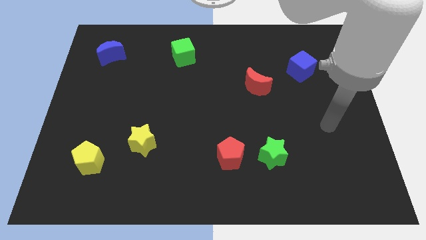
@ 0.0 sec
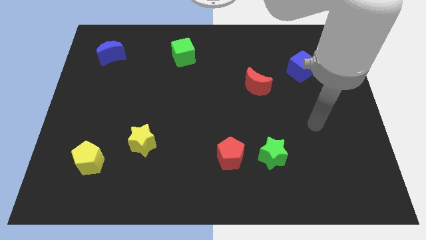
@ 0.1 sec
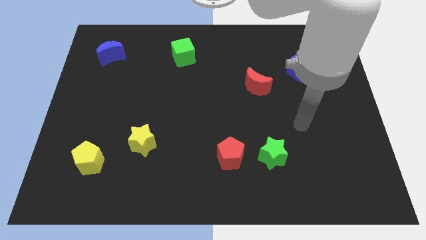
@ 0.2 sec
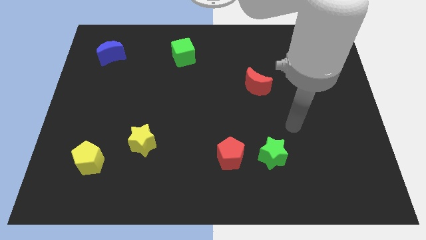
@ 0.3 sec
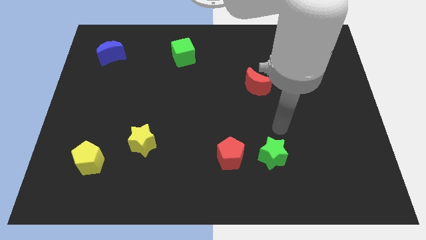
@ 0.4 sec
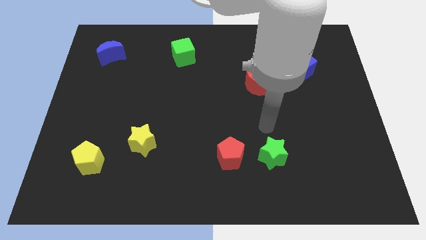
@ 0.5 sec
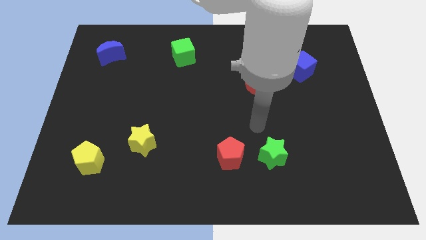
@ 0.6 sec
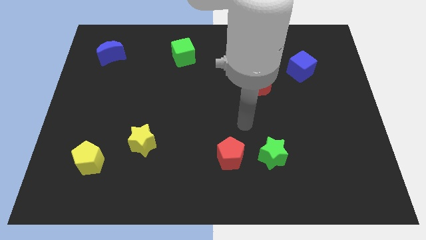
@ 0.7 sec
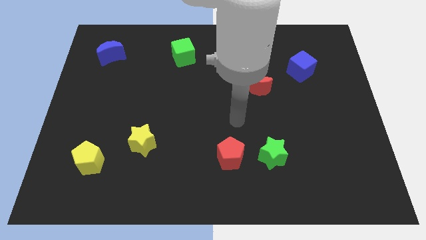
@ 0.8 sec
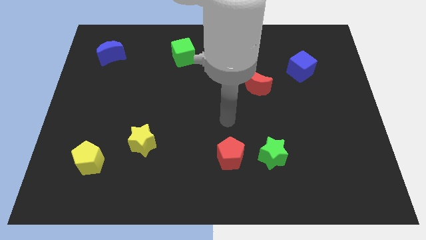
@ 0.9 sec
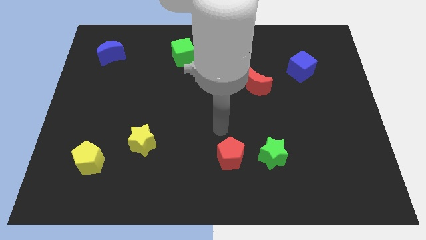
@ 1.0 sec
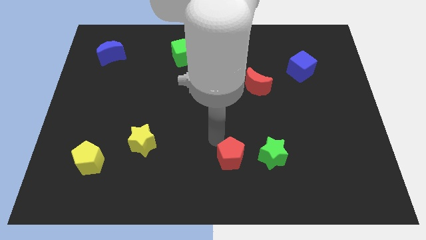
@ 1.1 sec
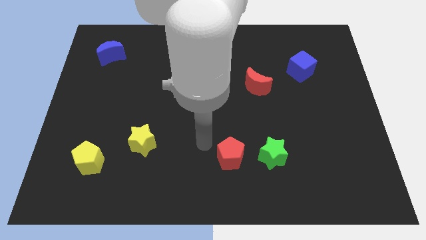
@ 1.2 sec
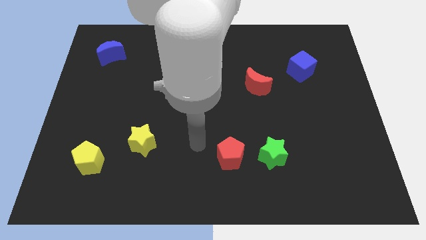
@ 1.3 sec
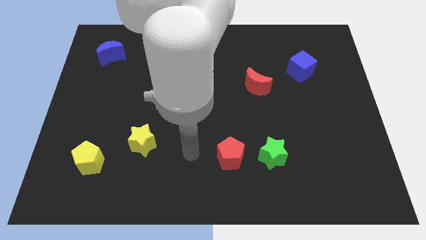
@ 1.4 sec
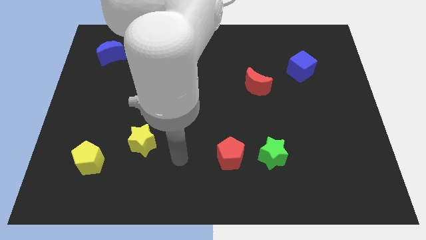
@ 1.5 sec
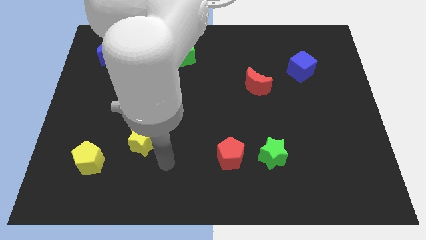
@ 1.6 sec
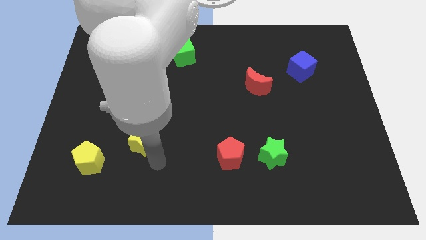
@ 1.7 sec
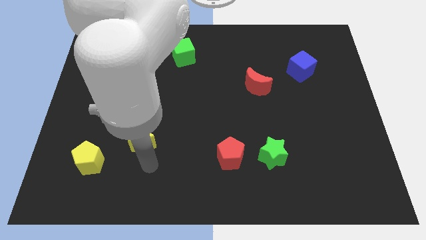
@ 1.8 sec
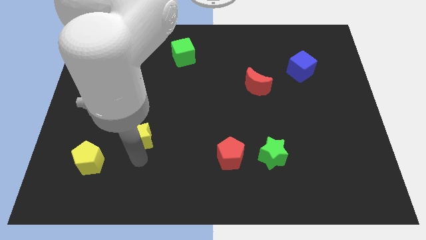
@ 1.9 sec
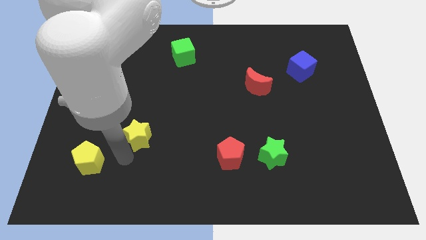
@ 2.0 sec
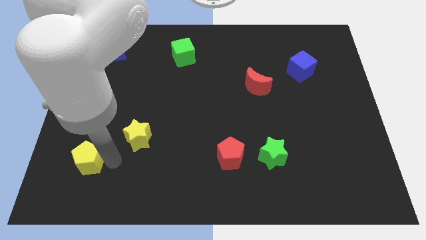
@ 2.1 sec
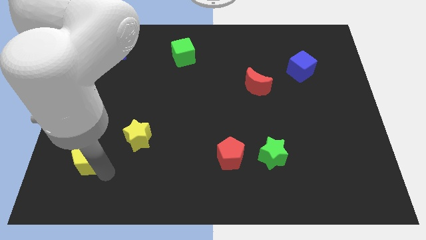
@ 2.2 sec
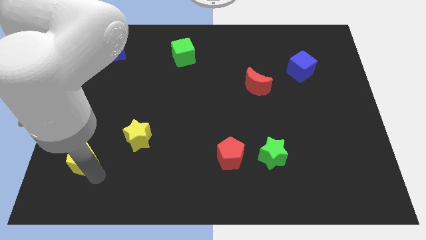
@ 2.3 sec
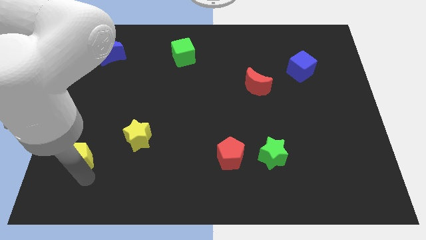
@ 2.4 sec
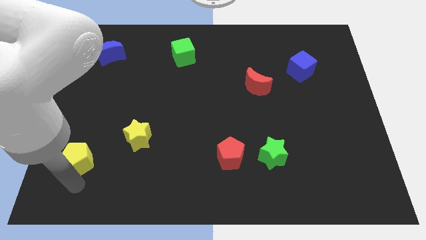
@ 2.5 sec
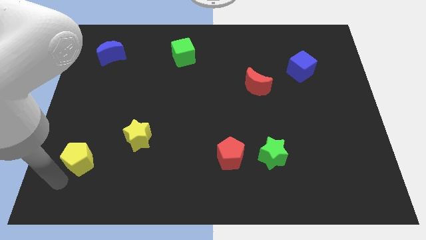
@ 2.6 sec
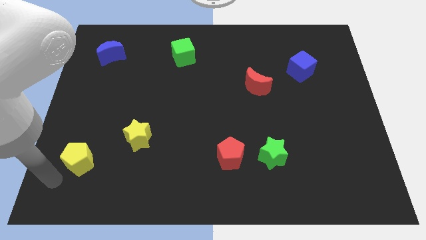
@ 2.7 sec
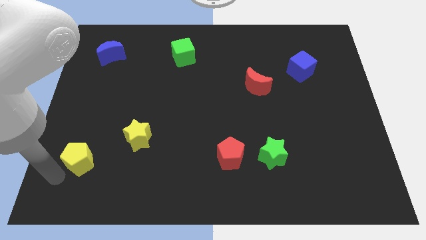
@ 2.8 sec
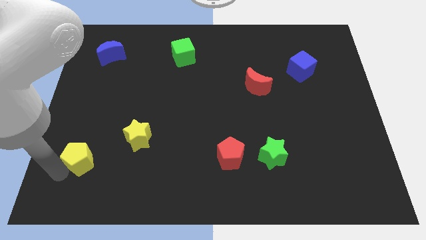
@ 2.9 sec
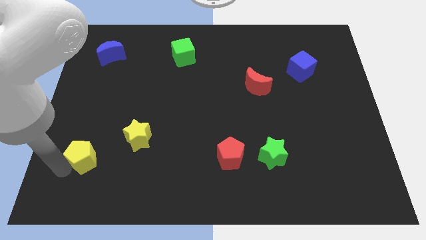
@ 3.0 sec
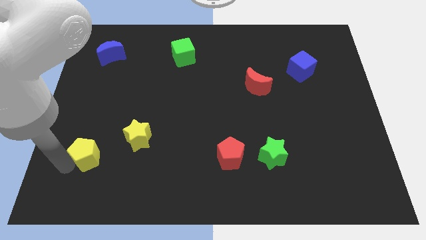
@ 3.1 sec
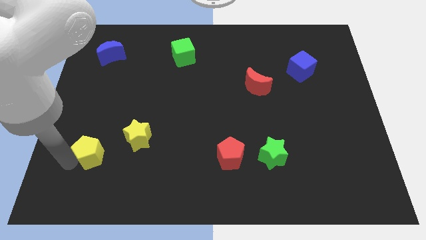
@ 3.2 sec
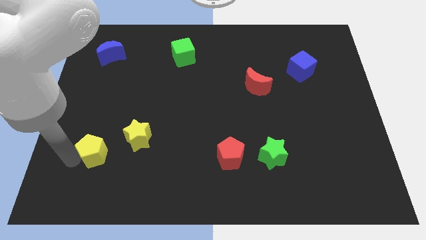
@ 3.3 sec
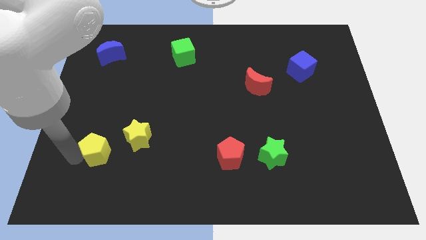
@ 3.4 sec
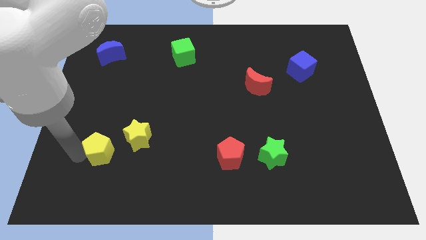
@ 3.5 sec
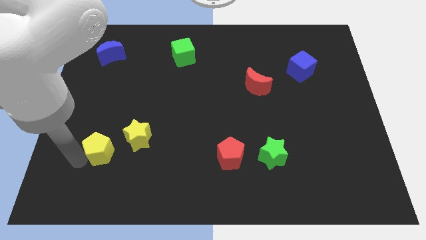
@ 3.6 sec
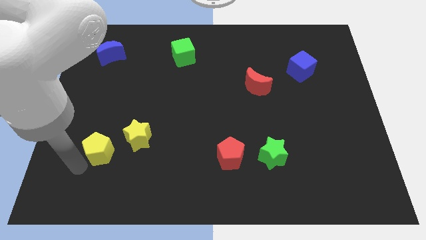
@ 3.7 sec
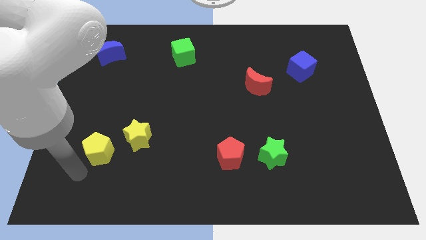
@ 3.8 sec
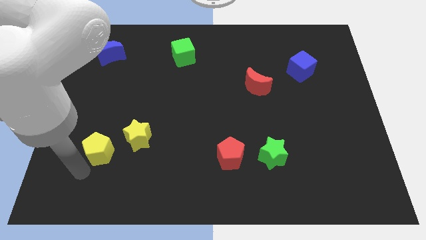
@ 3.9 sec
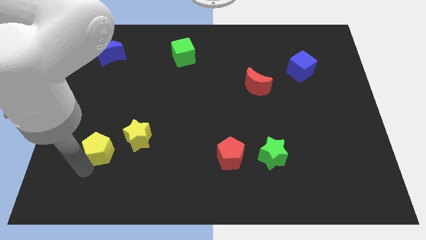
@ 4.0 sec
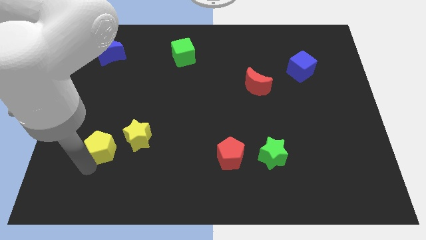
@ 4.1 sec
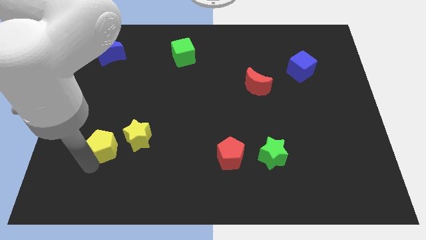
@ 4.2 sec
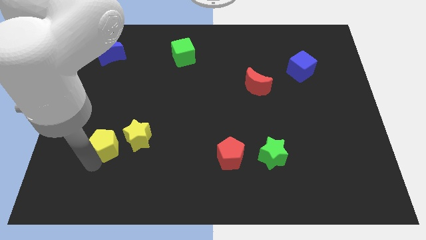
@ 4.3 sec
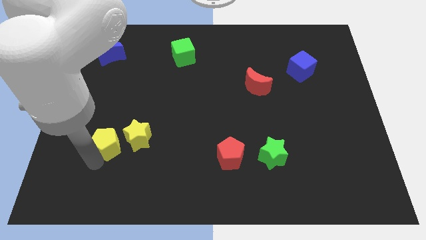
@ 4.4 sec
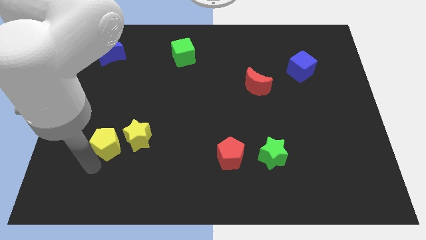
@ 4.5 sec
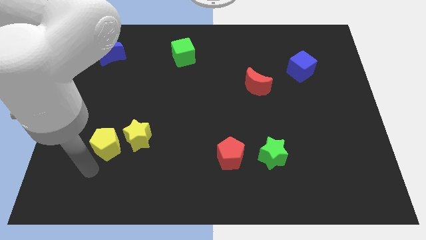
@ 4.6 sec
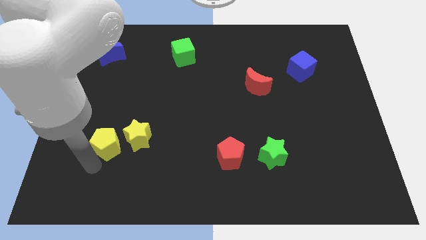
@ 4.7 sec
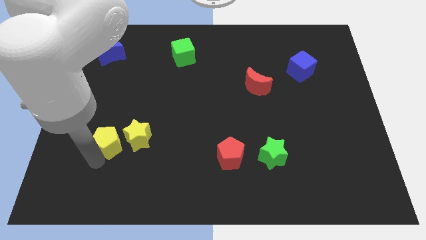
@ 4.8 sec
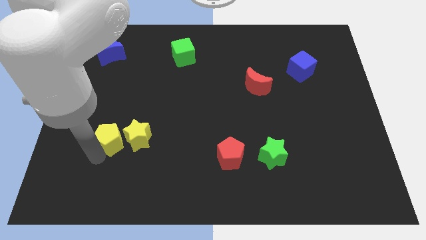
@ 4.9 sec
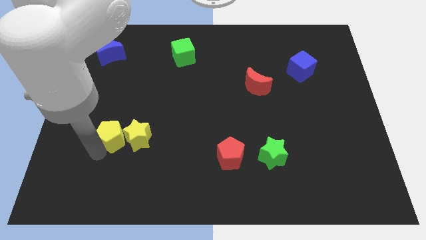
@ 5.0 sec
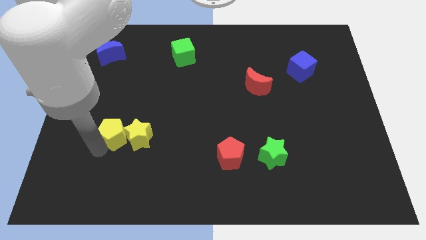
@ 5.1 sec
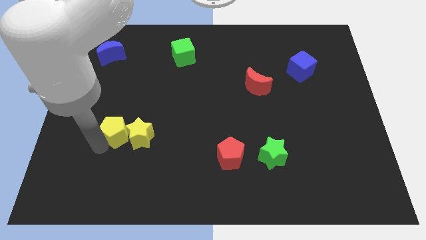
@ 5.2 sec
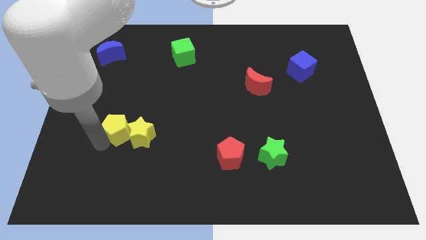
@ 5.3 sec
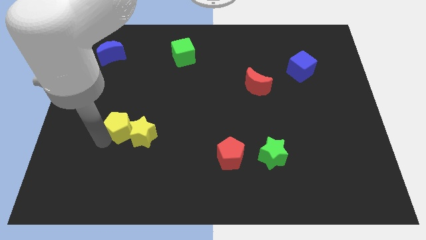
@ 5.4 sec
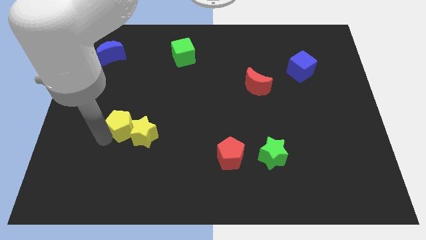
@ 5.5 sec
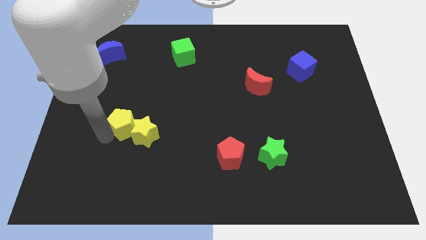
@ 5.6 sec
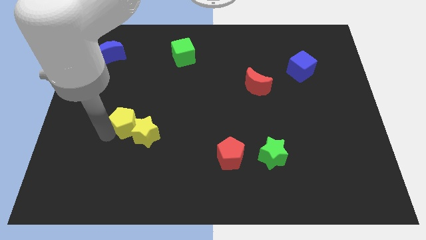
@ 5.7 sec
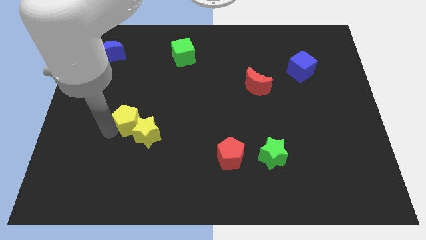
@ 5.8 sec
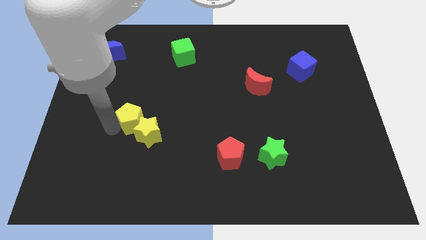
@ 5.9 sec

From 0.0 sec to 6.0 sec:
push the yellow pentagon to the top of the yellow star
